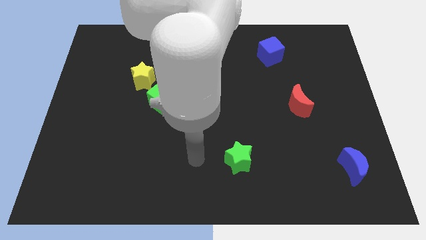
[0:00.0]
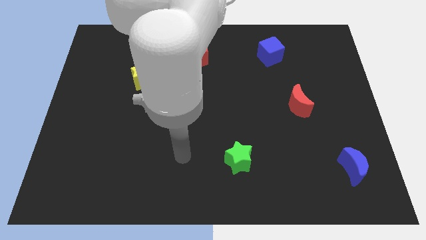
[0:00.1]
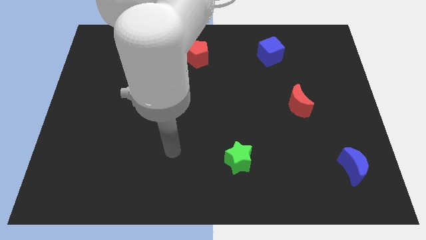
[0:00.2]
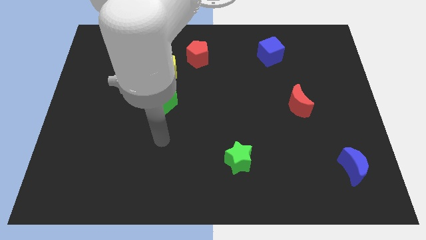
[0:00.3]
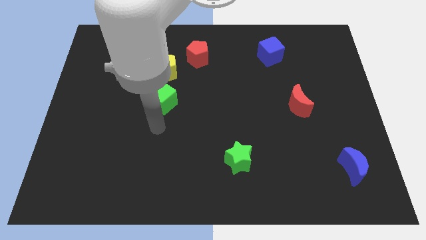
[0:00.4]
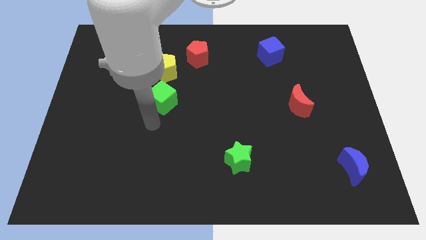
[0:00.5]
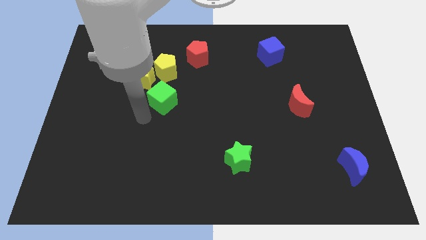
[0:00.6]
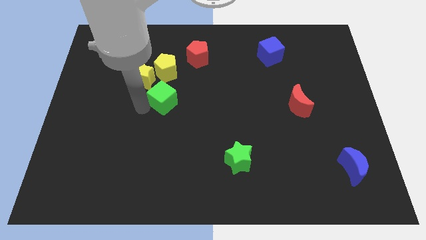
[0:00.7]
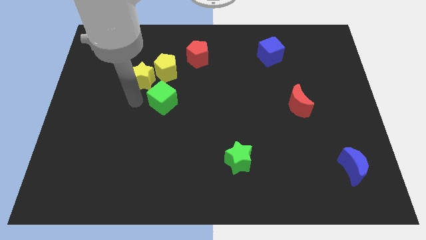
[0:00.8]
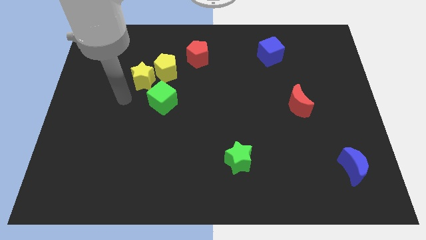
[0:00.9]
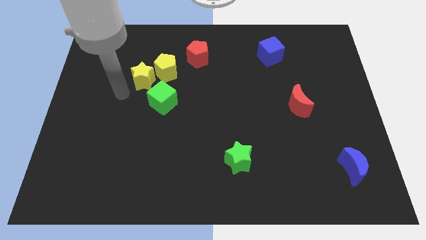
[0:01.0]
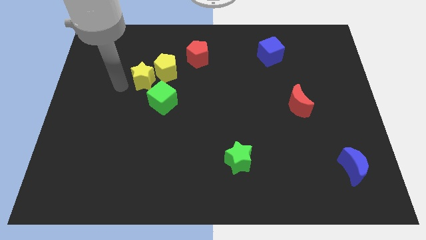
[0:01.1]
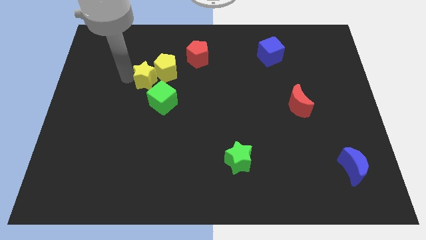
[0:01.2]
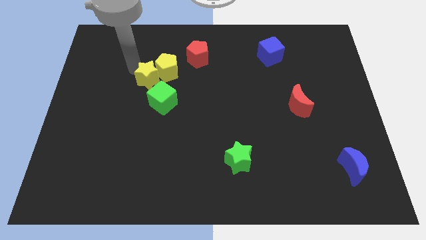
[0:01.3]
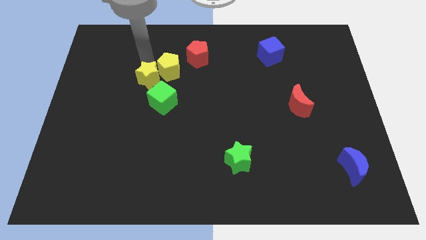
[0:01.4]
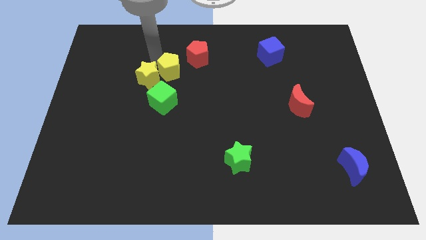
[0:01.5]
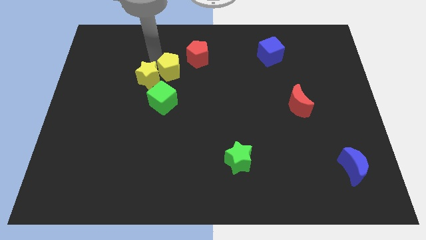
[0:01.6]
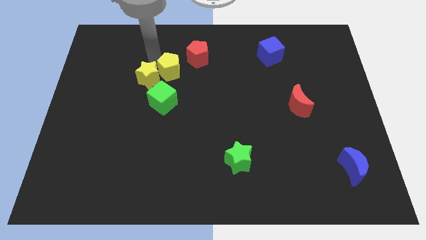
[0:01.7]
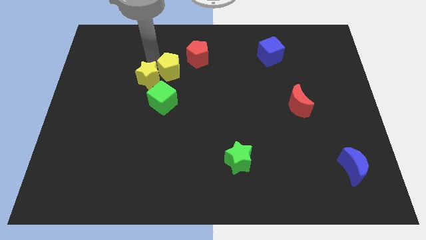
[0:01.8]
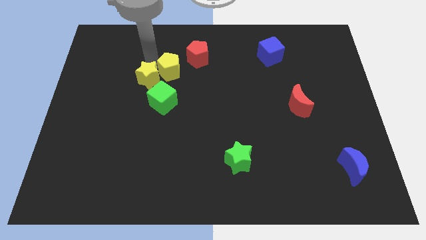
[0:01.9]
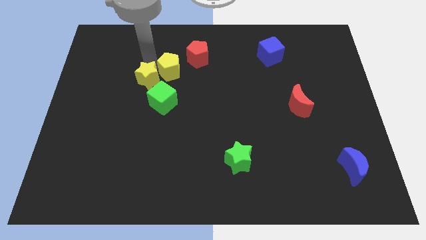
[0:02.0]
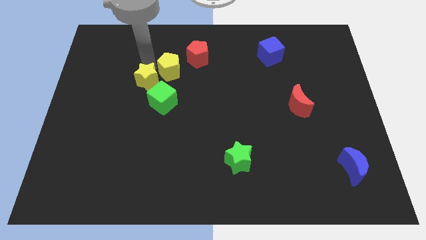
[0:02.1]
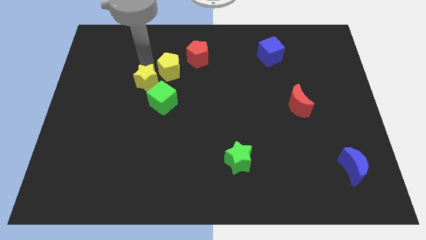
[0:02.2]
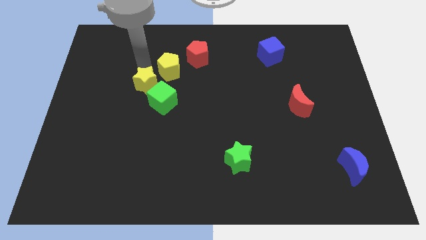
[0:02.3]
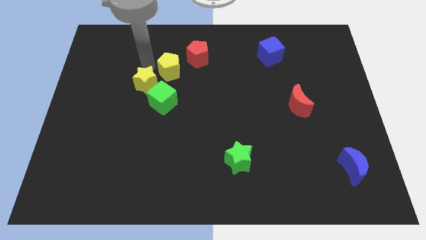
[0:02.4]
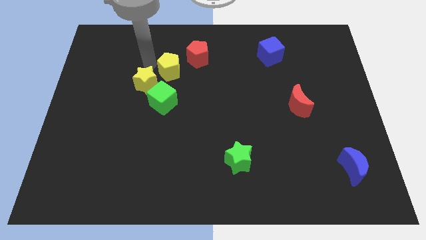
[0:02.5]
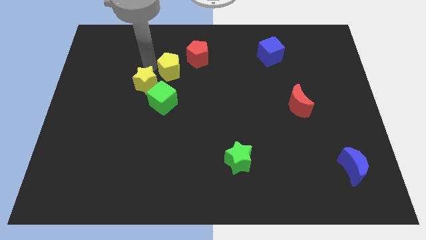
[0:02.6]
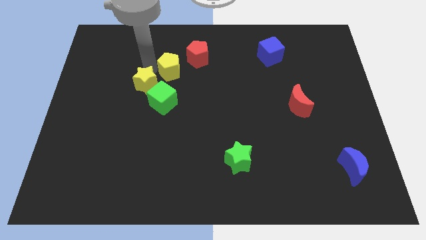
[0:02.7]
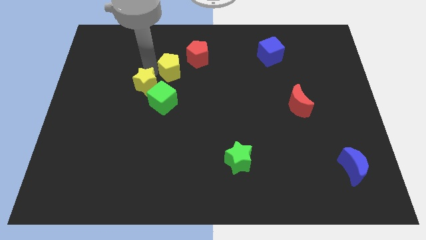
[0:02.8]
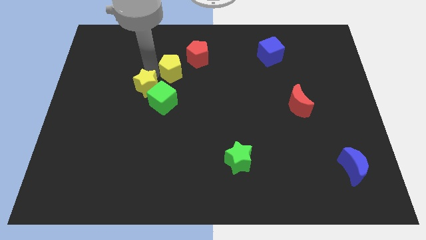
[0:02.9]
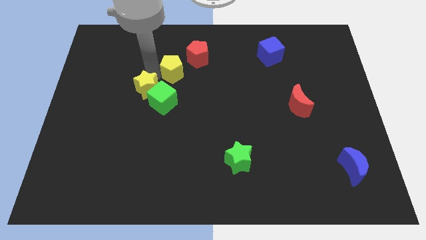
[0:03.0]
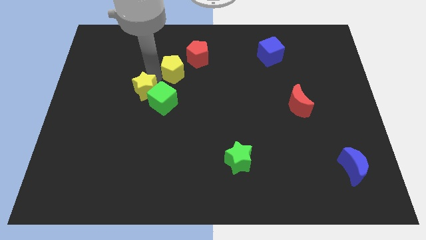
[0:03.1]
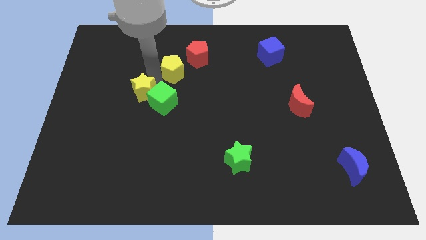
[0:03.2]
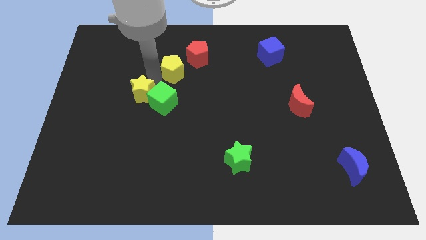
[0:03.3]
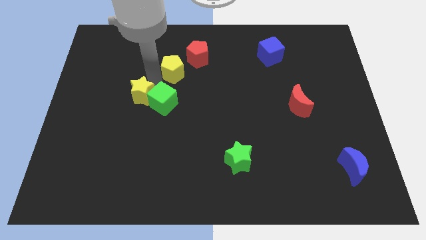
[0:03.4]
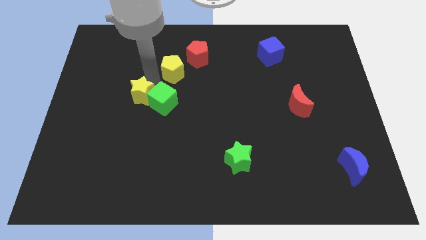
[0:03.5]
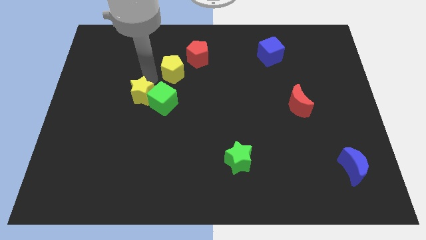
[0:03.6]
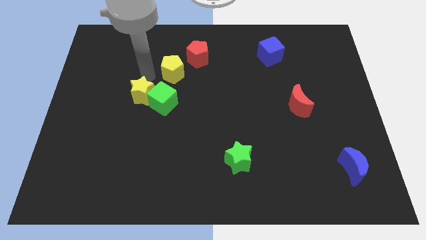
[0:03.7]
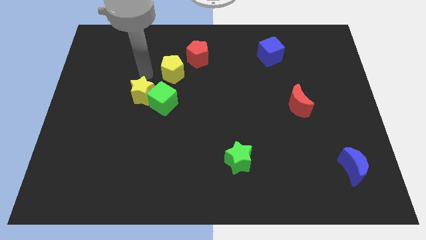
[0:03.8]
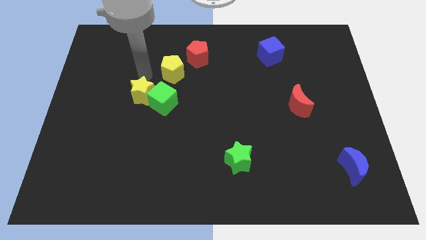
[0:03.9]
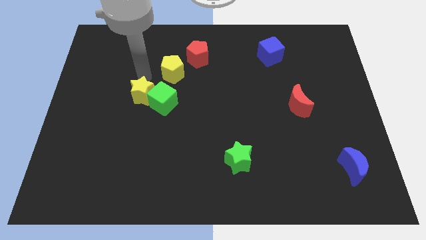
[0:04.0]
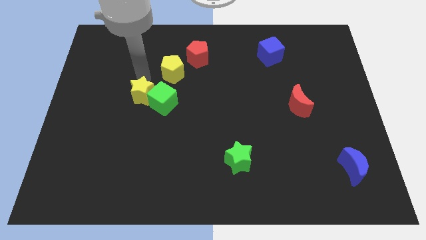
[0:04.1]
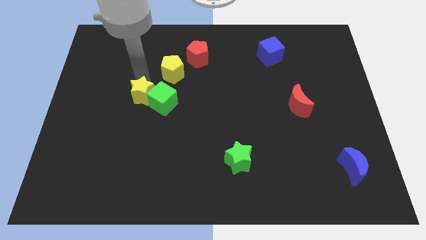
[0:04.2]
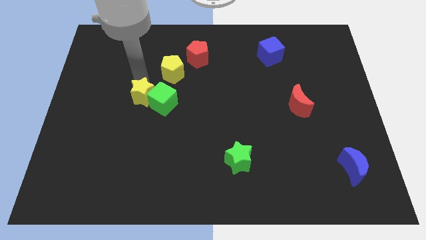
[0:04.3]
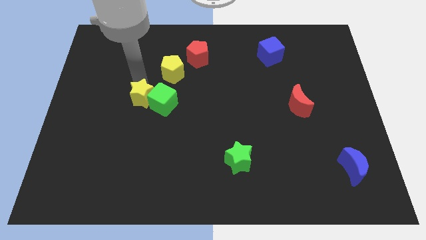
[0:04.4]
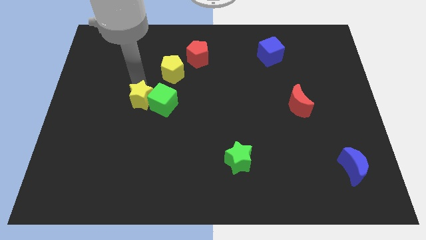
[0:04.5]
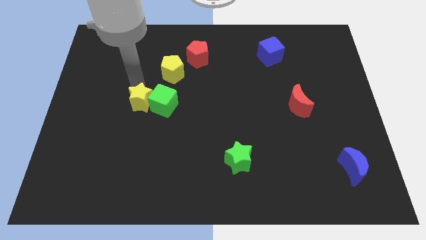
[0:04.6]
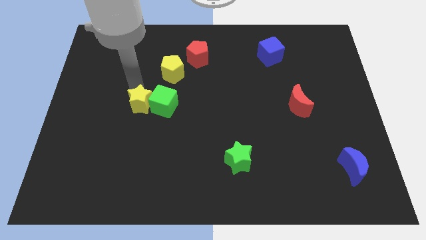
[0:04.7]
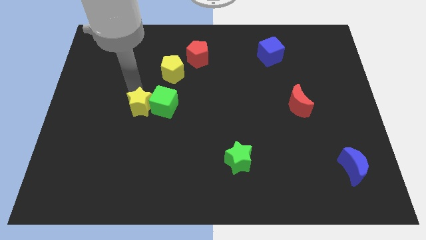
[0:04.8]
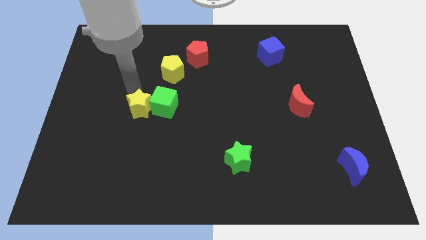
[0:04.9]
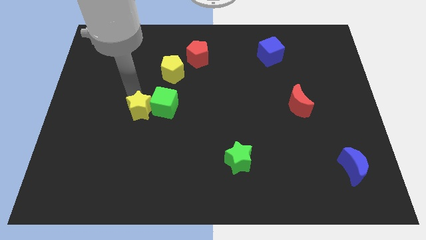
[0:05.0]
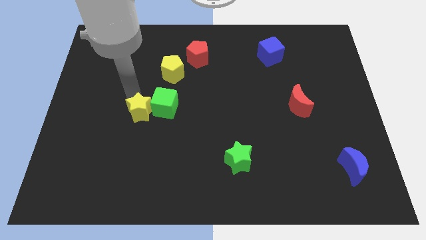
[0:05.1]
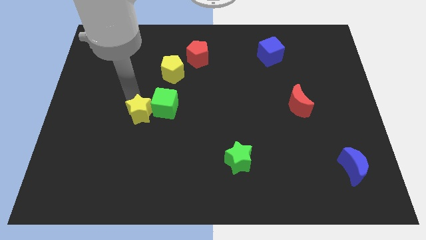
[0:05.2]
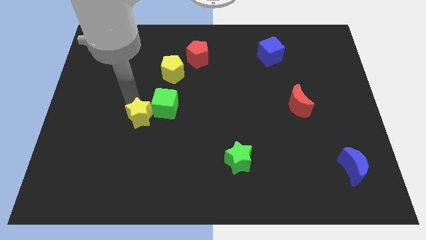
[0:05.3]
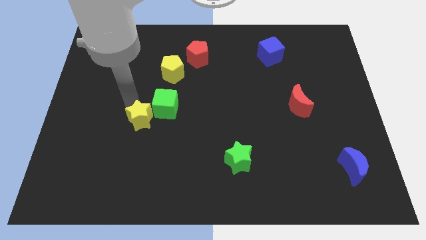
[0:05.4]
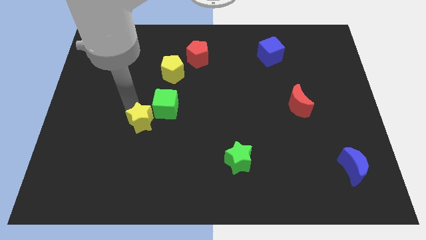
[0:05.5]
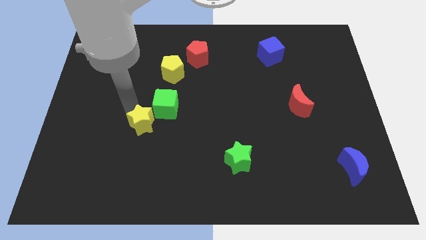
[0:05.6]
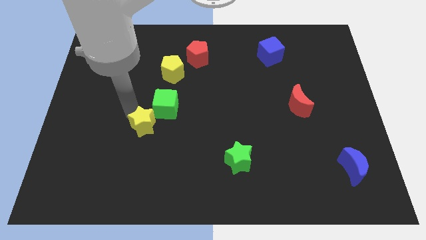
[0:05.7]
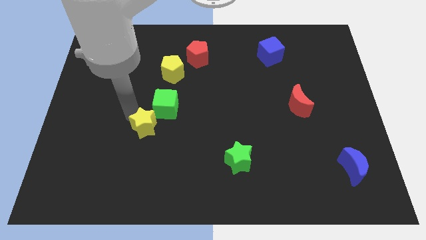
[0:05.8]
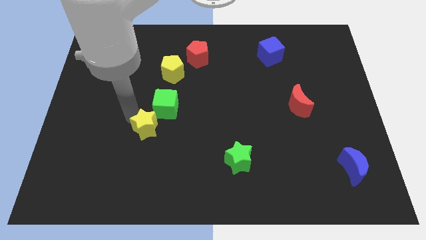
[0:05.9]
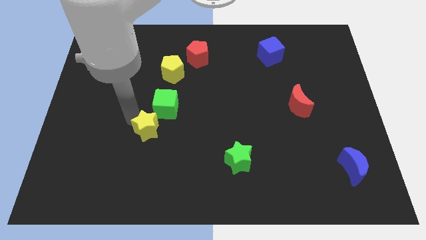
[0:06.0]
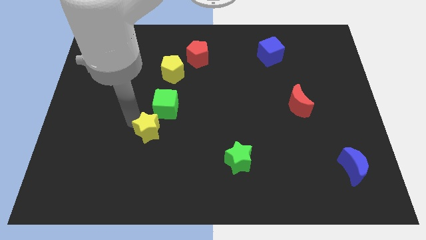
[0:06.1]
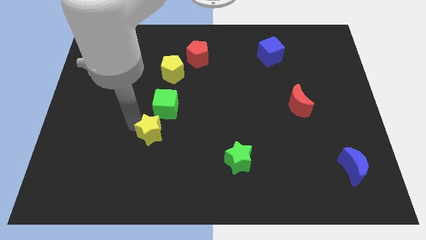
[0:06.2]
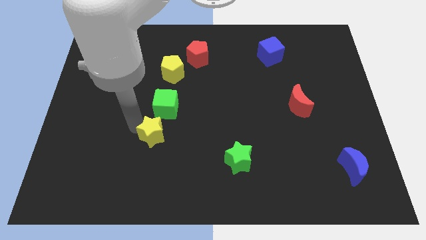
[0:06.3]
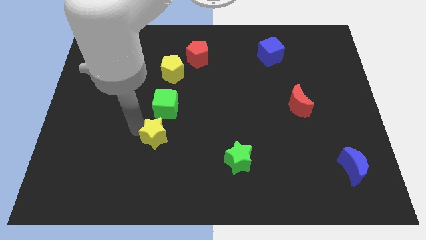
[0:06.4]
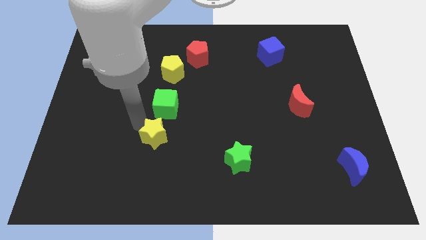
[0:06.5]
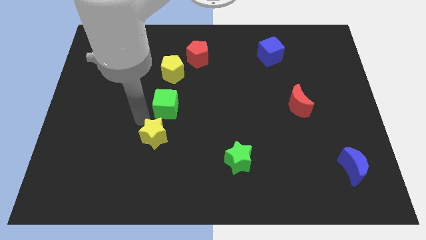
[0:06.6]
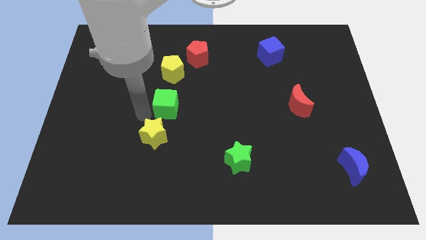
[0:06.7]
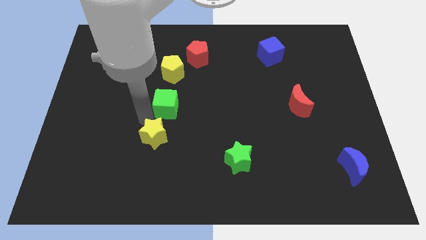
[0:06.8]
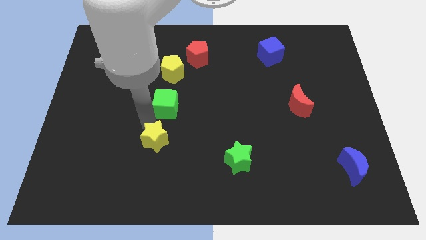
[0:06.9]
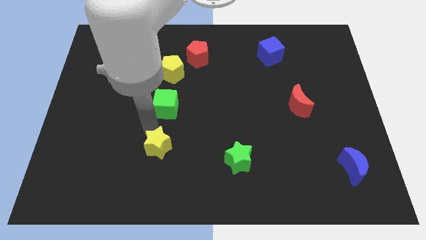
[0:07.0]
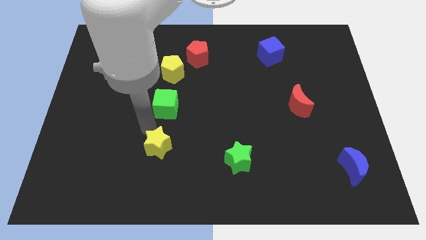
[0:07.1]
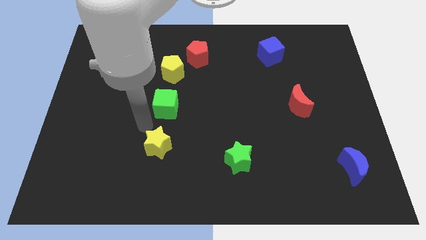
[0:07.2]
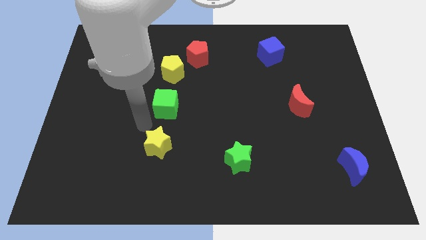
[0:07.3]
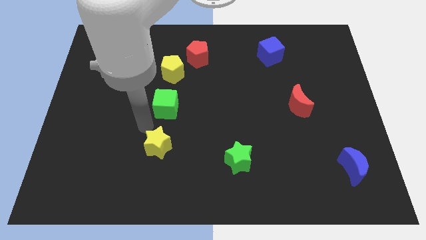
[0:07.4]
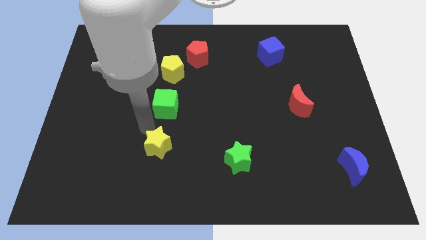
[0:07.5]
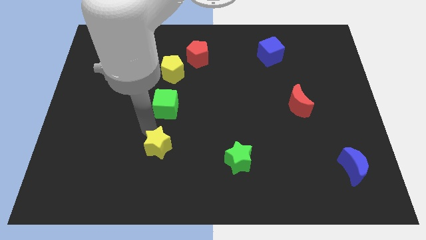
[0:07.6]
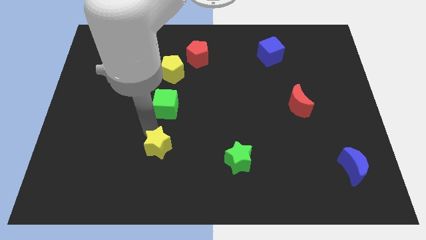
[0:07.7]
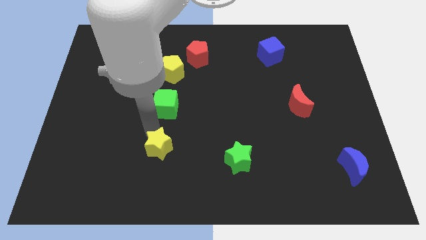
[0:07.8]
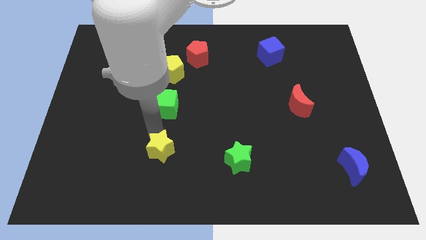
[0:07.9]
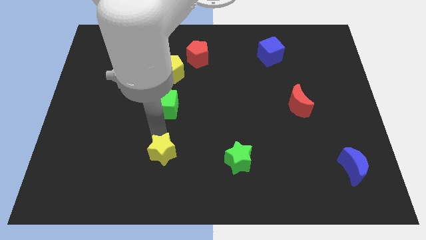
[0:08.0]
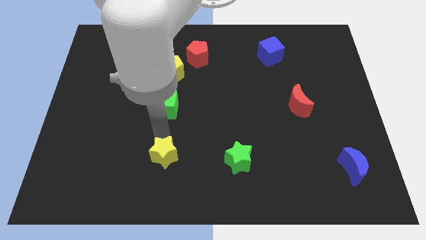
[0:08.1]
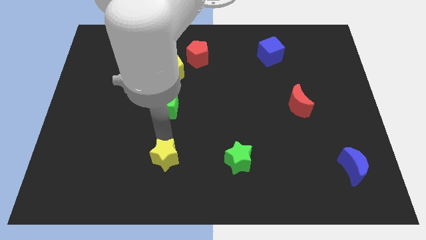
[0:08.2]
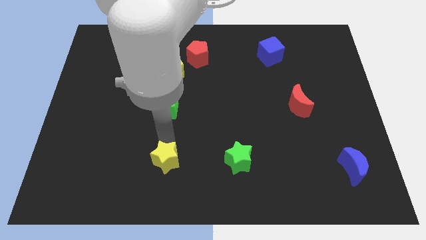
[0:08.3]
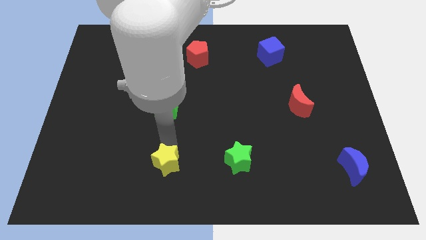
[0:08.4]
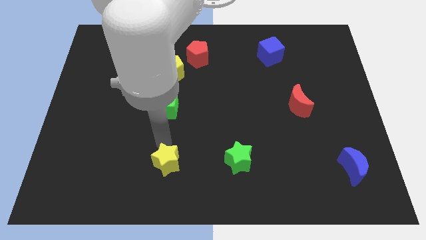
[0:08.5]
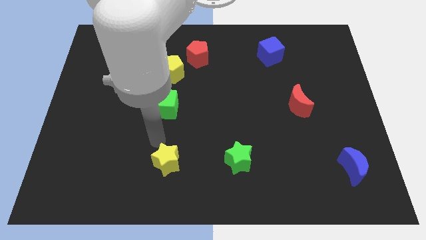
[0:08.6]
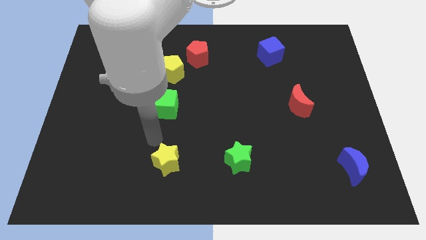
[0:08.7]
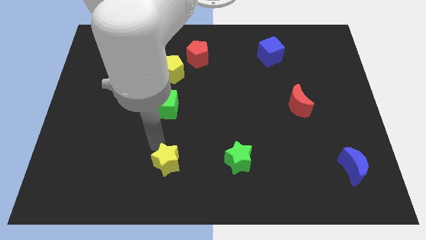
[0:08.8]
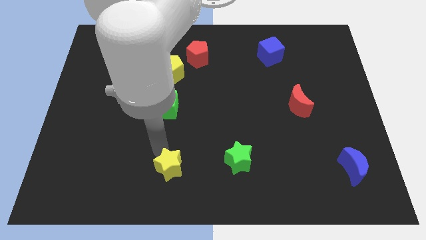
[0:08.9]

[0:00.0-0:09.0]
put the yellow star to the bottom side
